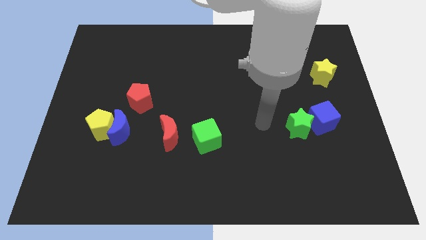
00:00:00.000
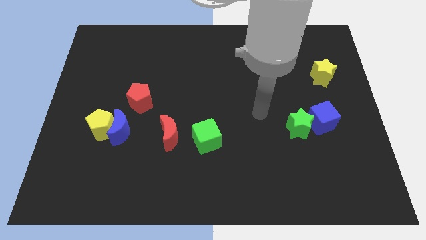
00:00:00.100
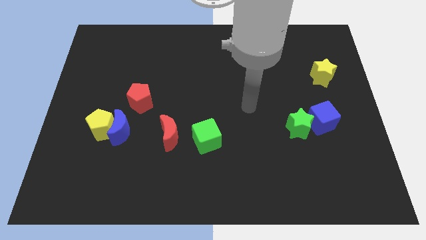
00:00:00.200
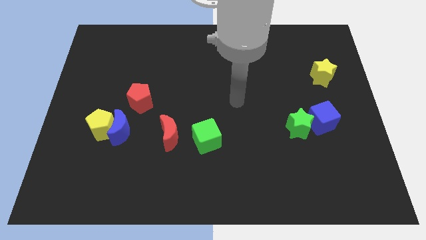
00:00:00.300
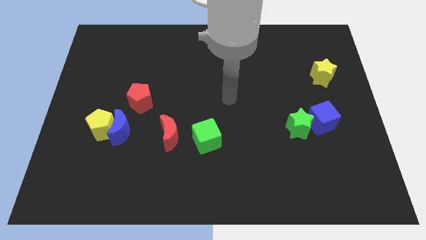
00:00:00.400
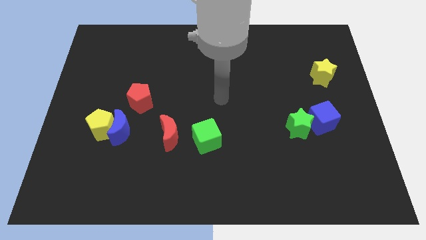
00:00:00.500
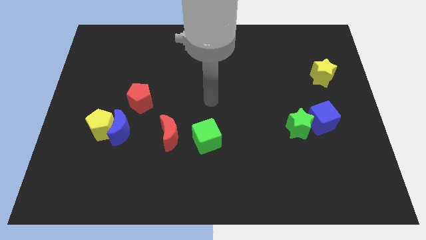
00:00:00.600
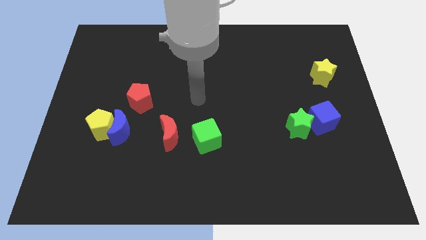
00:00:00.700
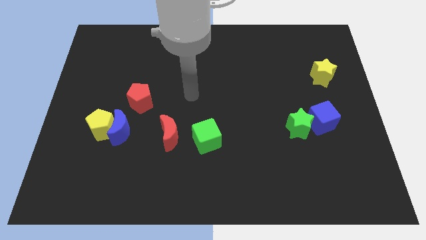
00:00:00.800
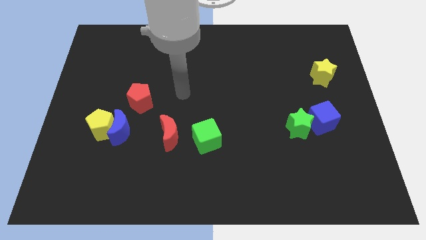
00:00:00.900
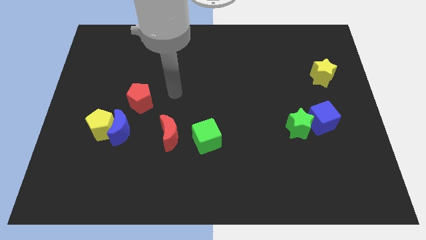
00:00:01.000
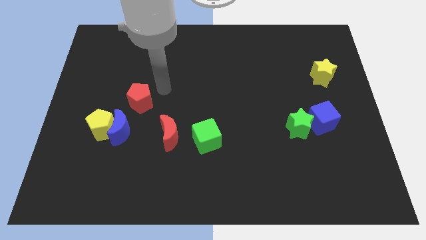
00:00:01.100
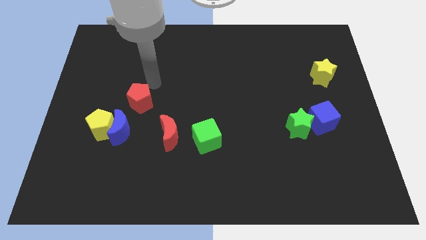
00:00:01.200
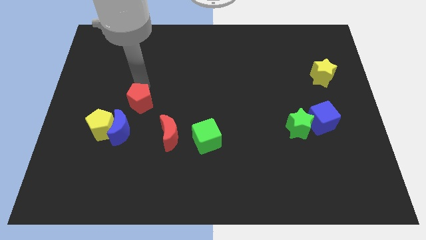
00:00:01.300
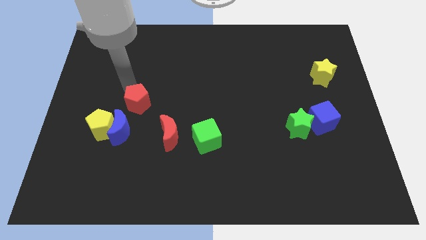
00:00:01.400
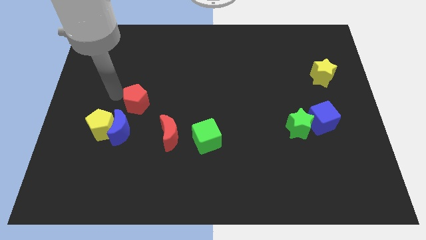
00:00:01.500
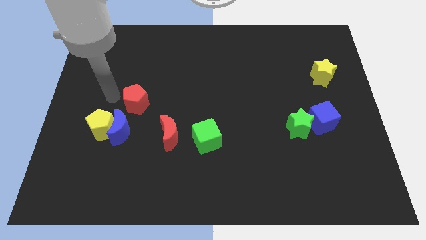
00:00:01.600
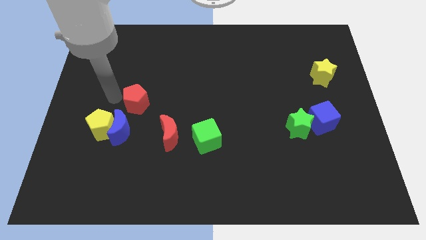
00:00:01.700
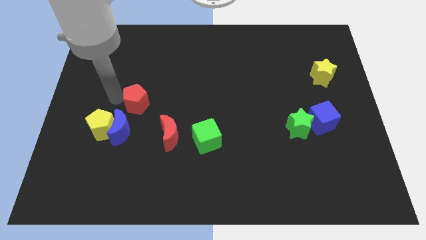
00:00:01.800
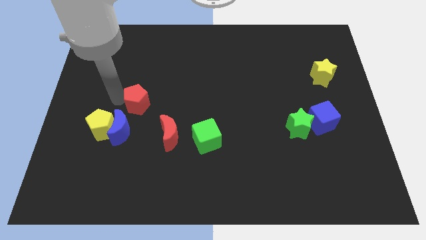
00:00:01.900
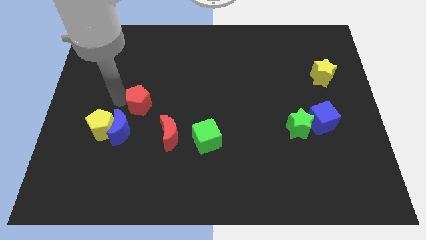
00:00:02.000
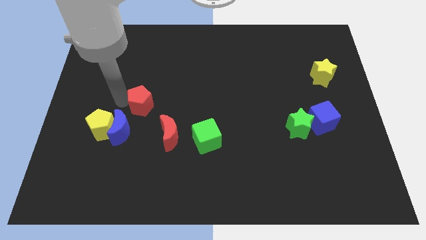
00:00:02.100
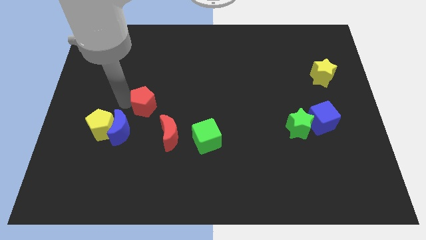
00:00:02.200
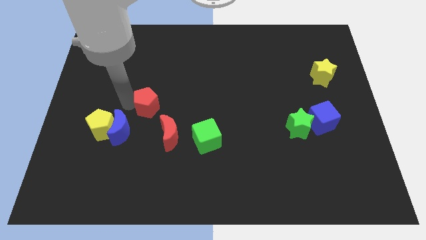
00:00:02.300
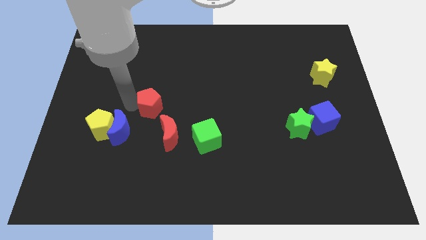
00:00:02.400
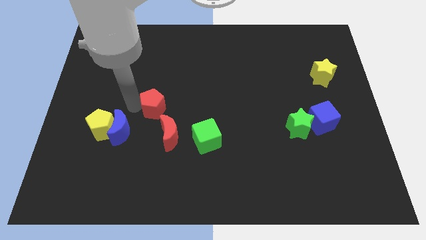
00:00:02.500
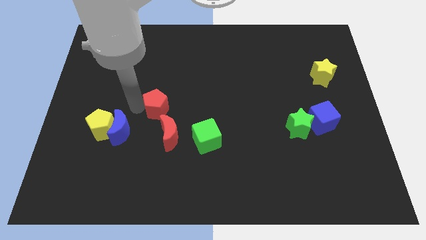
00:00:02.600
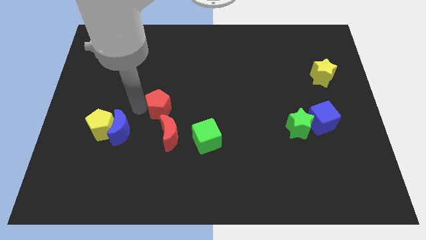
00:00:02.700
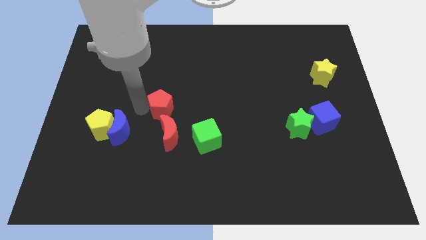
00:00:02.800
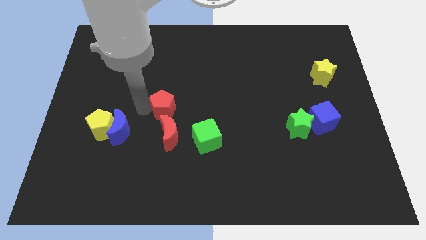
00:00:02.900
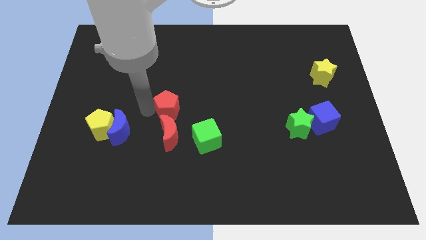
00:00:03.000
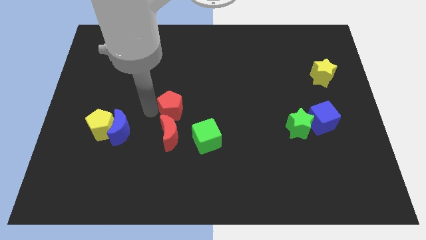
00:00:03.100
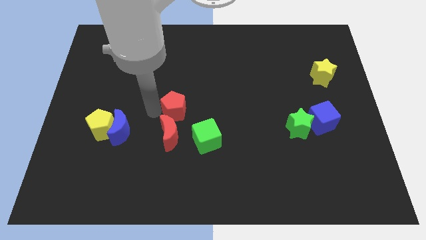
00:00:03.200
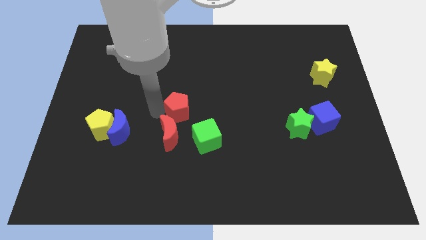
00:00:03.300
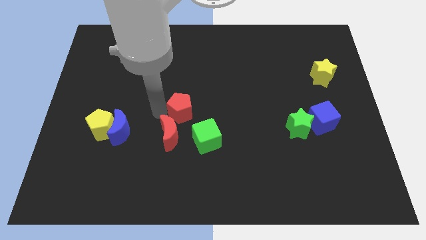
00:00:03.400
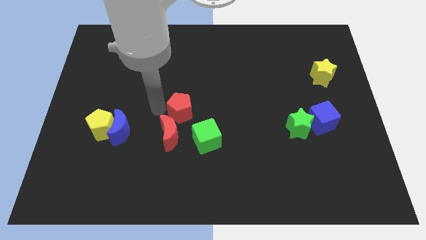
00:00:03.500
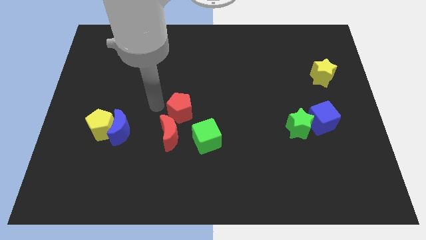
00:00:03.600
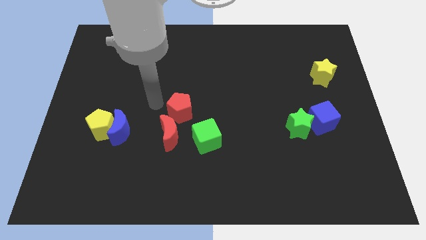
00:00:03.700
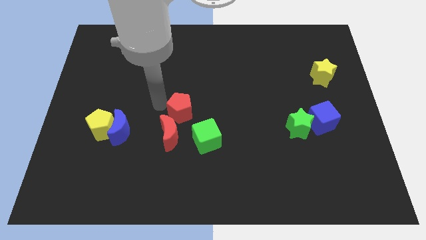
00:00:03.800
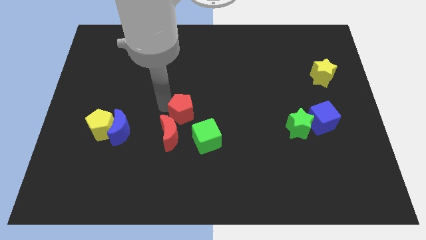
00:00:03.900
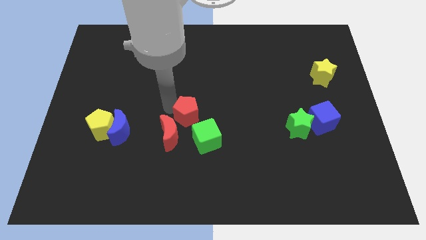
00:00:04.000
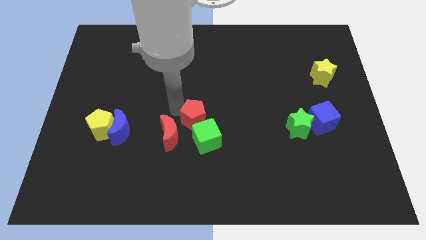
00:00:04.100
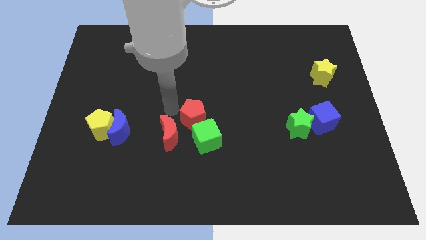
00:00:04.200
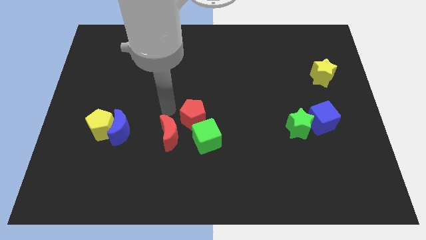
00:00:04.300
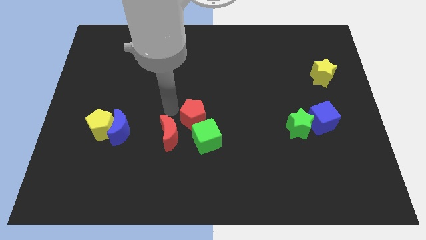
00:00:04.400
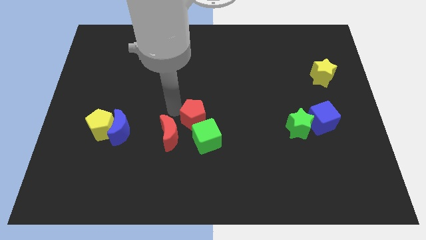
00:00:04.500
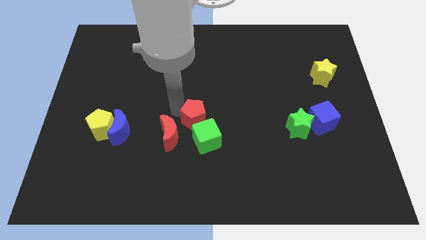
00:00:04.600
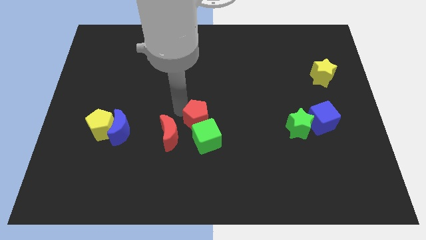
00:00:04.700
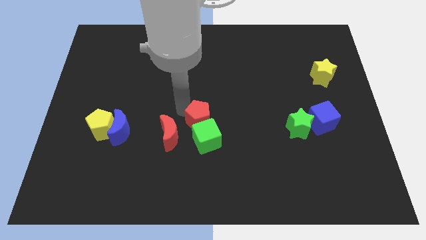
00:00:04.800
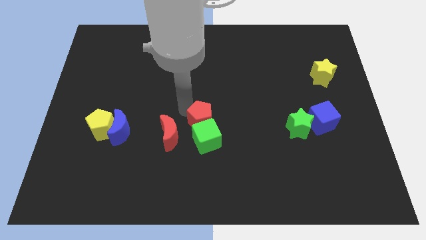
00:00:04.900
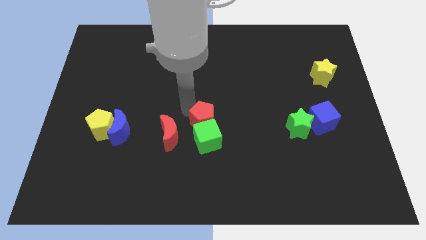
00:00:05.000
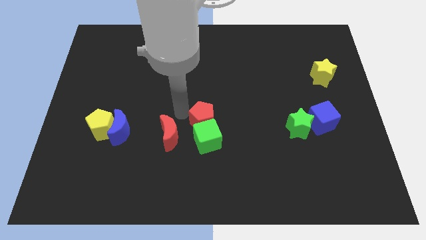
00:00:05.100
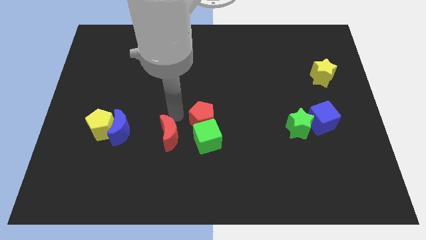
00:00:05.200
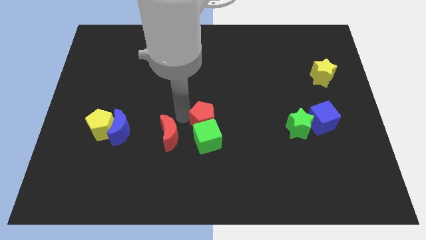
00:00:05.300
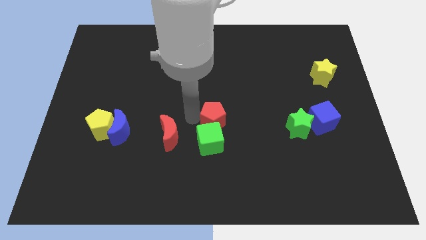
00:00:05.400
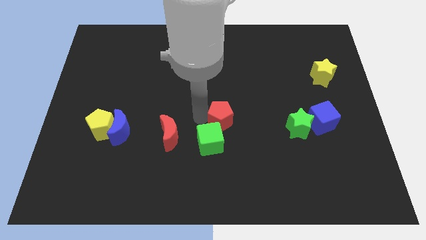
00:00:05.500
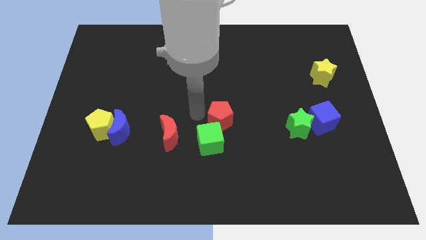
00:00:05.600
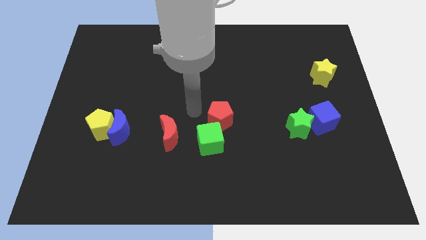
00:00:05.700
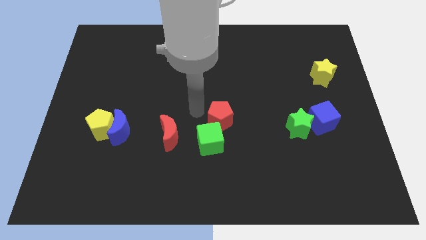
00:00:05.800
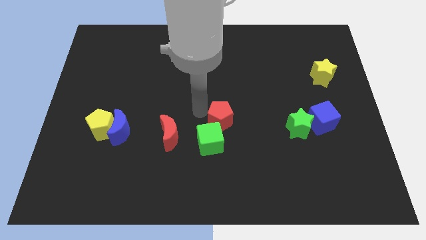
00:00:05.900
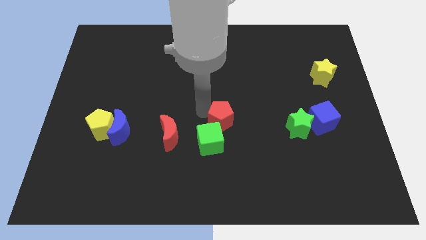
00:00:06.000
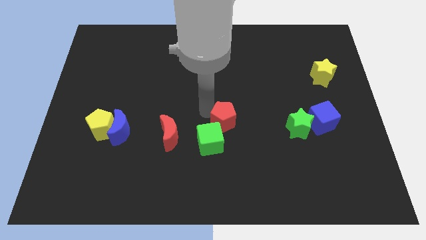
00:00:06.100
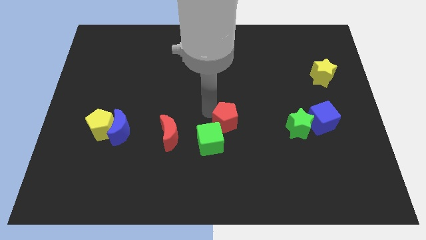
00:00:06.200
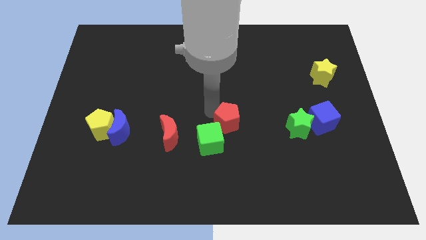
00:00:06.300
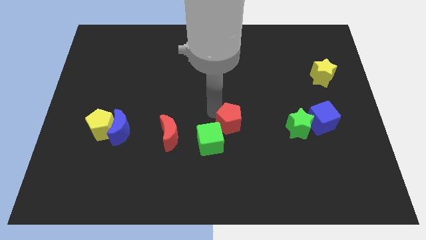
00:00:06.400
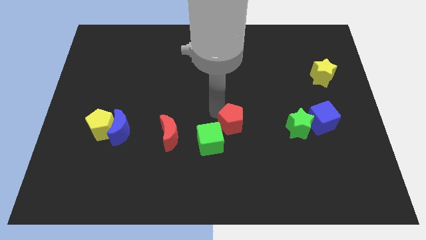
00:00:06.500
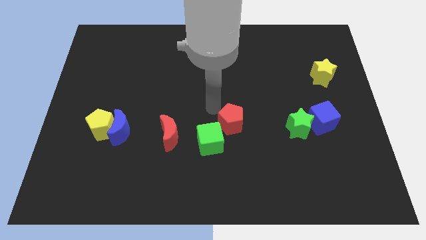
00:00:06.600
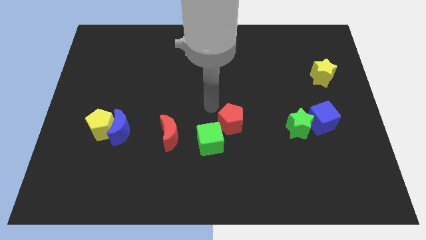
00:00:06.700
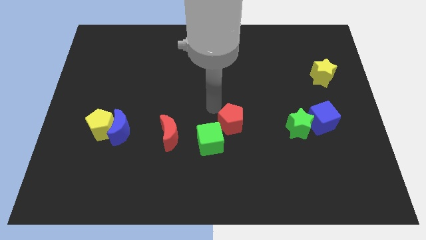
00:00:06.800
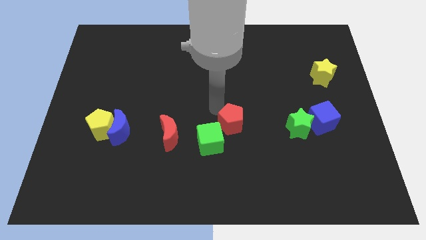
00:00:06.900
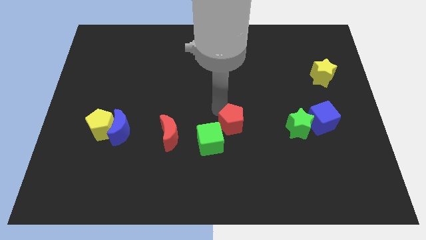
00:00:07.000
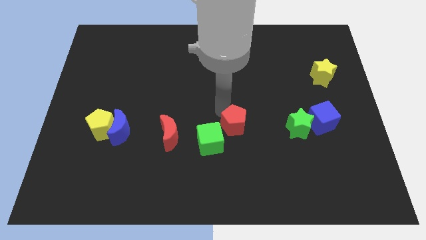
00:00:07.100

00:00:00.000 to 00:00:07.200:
move the red pentagon to the right of the green cube

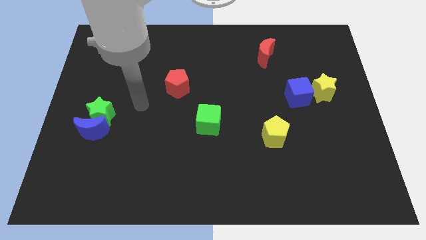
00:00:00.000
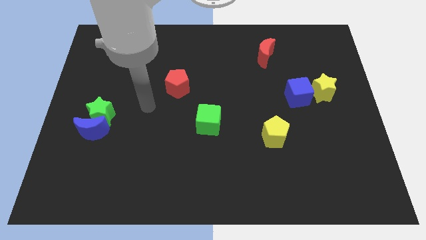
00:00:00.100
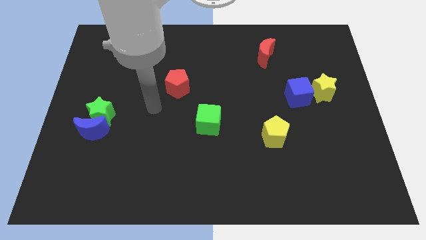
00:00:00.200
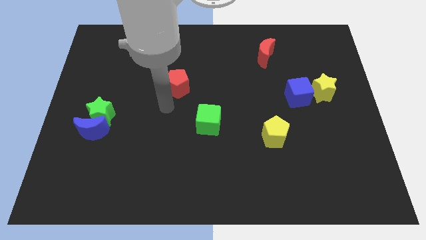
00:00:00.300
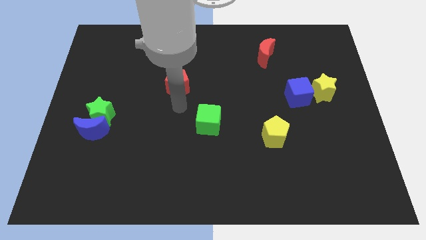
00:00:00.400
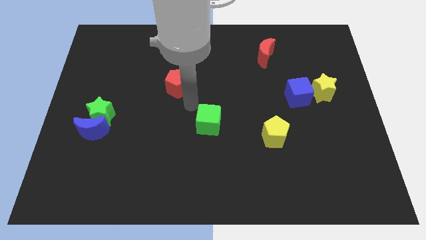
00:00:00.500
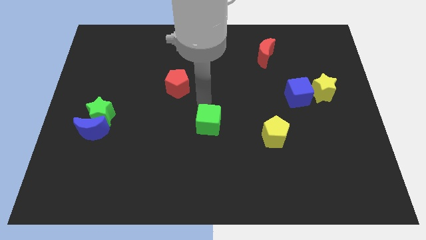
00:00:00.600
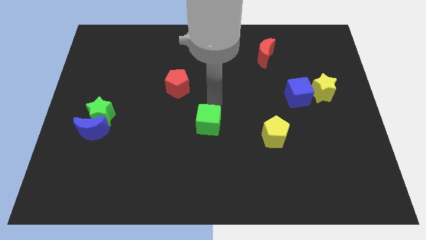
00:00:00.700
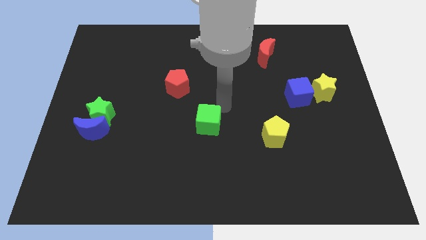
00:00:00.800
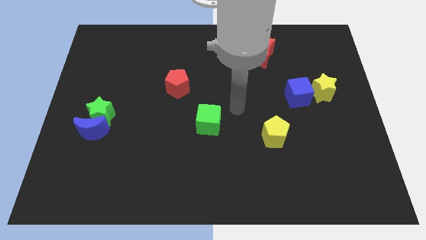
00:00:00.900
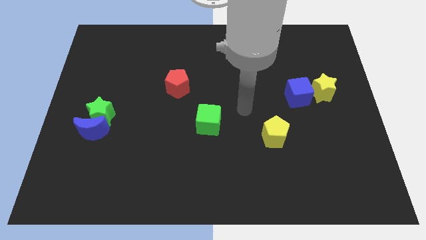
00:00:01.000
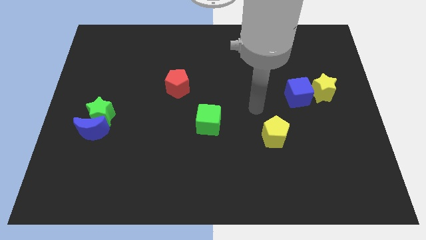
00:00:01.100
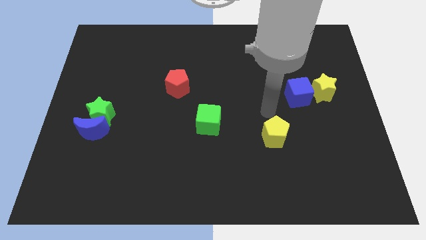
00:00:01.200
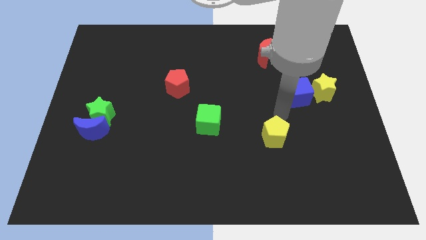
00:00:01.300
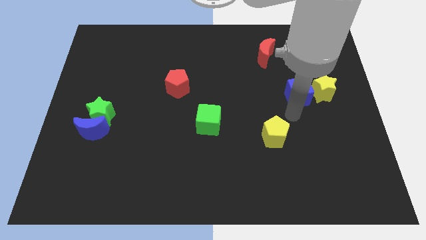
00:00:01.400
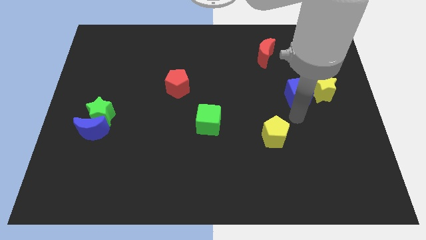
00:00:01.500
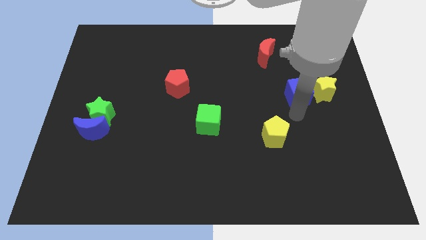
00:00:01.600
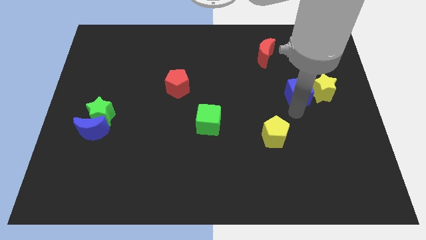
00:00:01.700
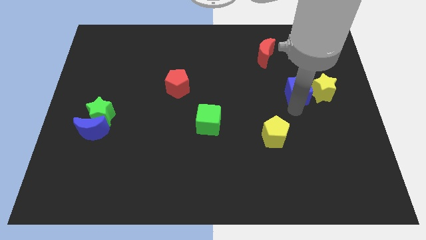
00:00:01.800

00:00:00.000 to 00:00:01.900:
slide the blue cube to the top left side of the yellow star
